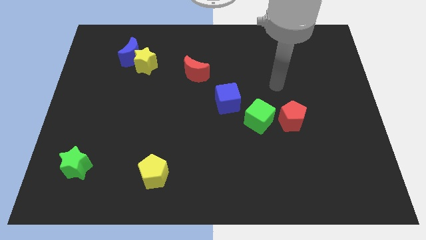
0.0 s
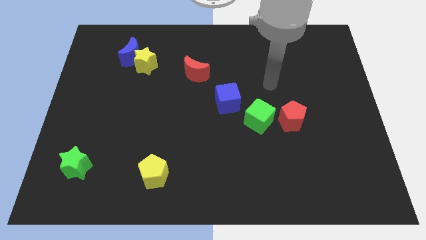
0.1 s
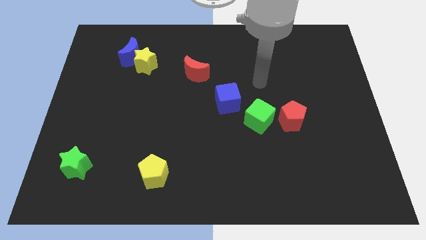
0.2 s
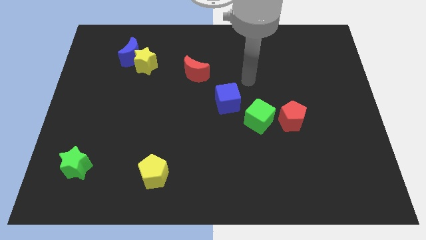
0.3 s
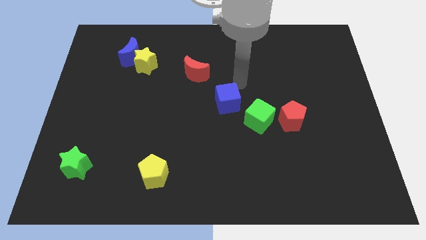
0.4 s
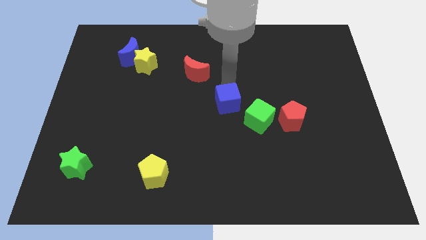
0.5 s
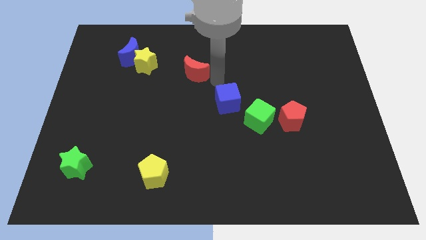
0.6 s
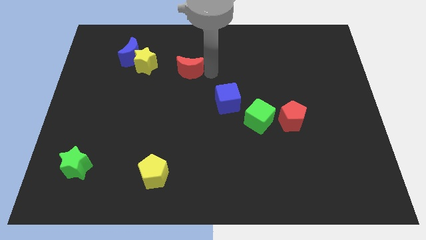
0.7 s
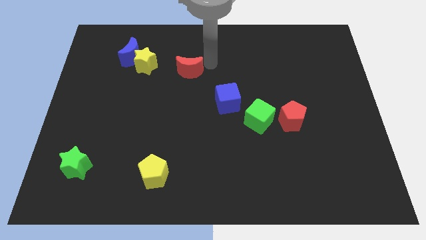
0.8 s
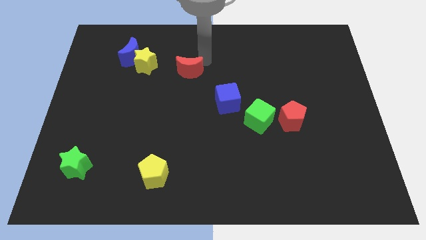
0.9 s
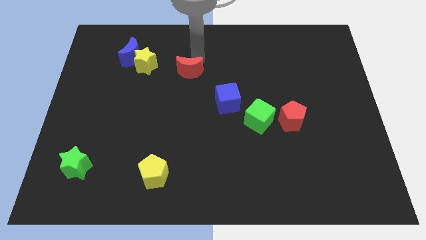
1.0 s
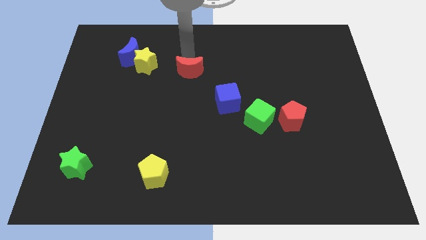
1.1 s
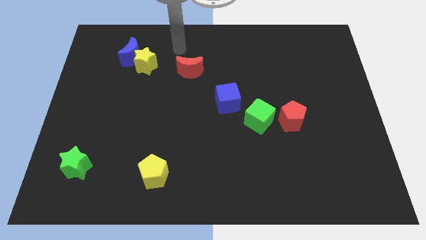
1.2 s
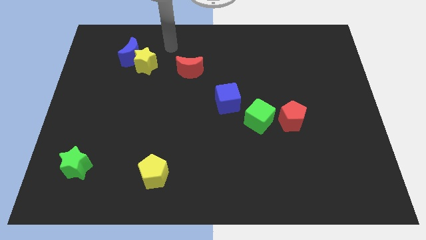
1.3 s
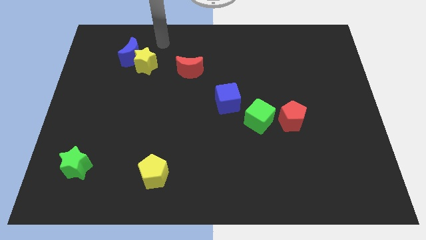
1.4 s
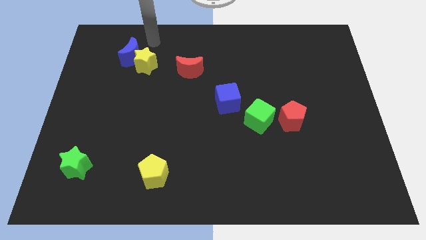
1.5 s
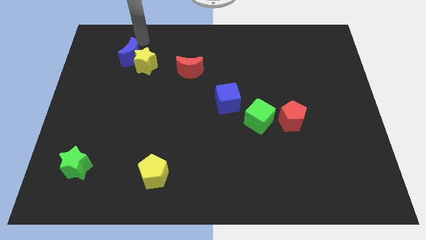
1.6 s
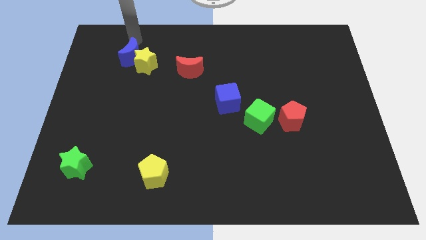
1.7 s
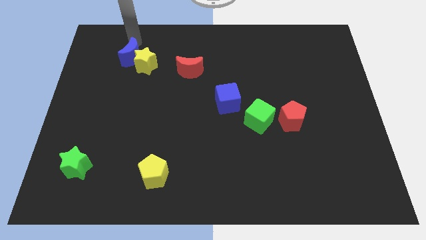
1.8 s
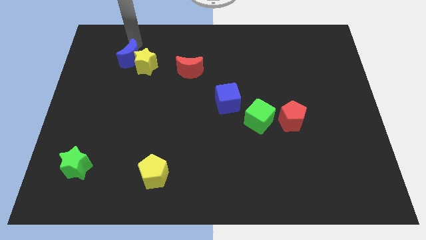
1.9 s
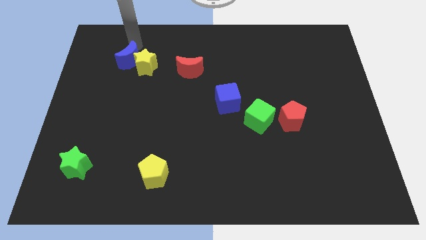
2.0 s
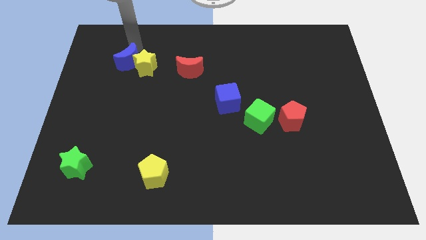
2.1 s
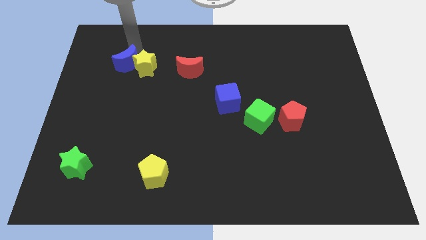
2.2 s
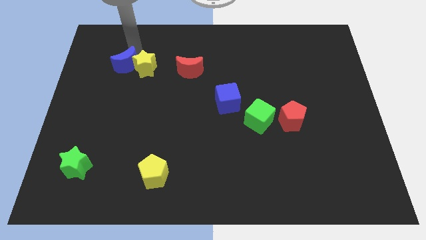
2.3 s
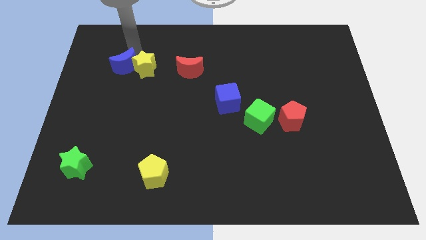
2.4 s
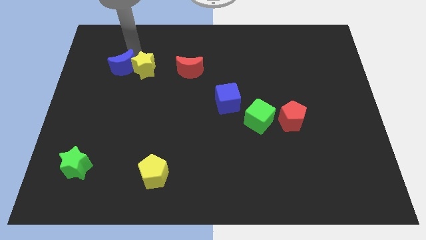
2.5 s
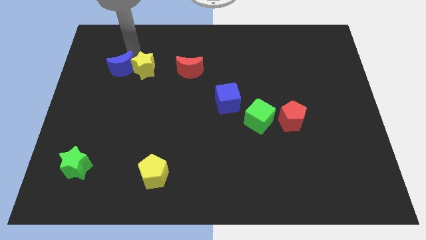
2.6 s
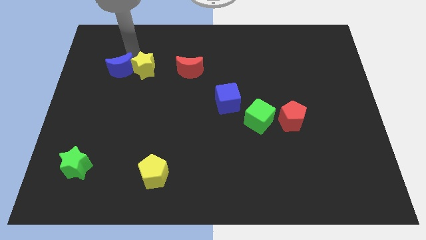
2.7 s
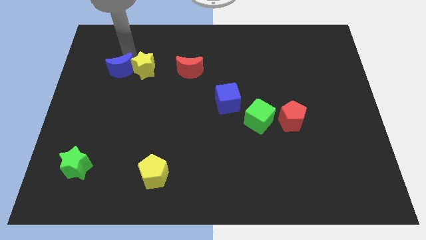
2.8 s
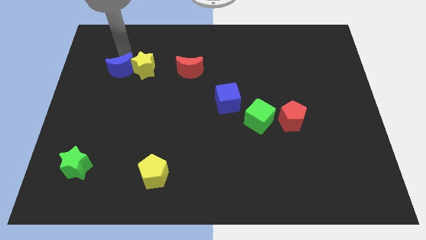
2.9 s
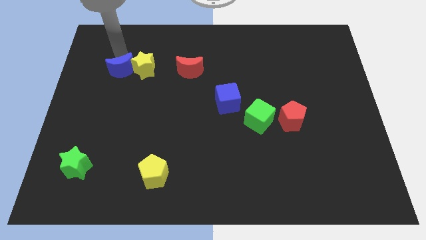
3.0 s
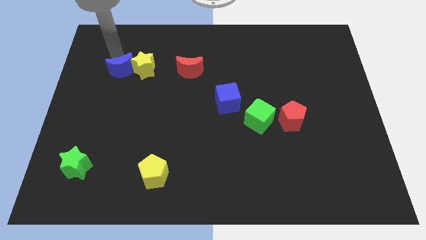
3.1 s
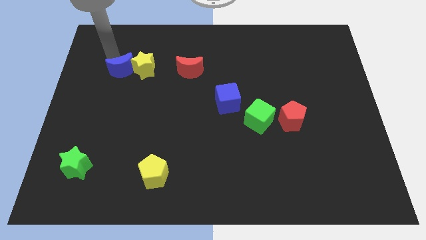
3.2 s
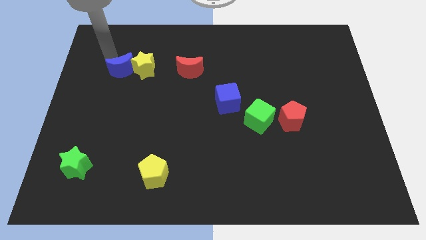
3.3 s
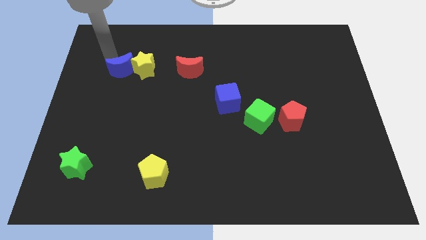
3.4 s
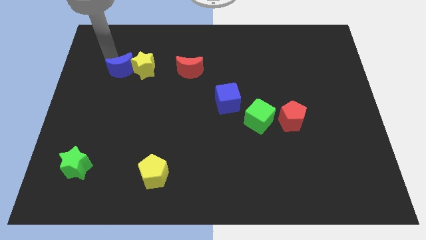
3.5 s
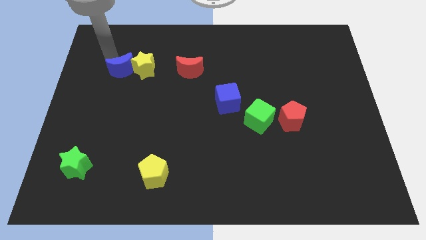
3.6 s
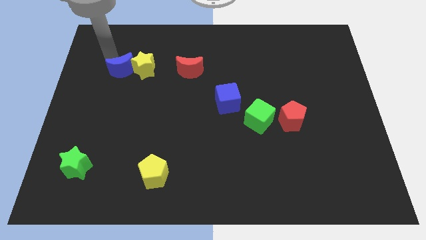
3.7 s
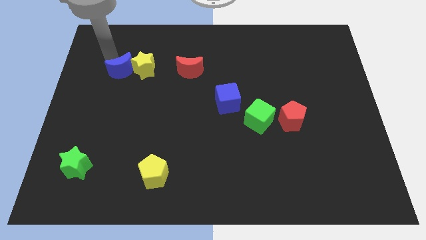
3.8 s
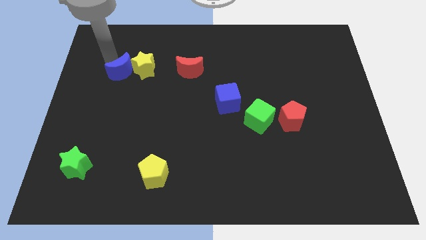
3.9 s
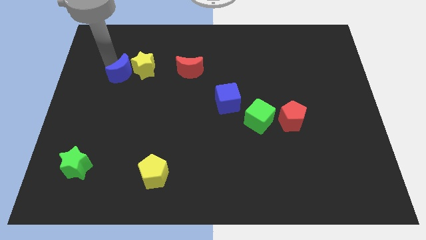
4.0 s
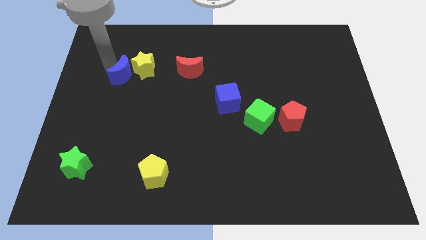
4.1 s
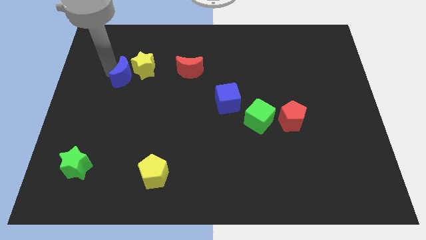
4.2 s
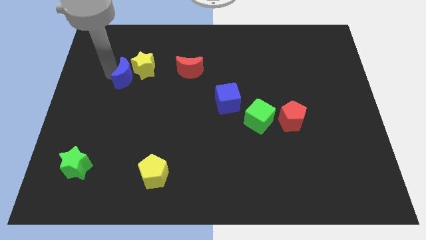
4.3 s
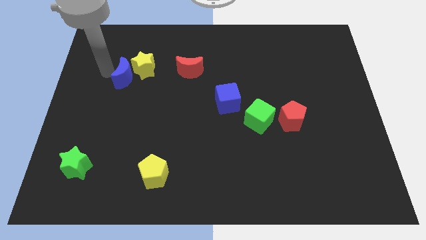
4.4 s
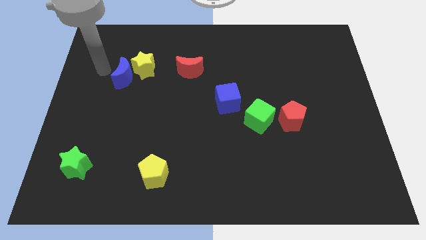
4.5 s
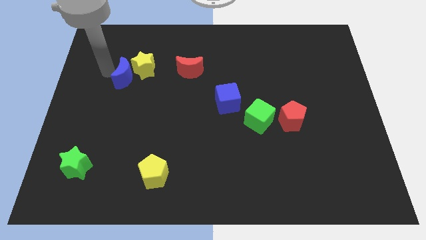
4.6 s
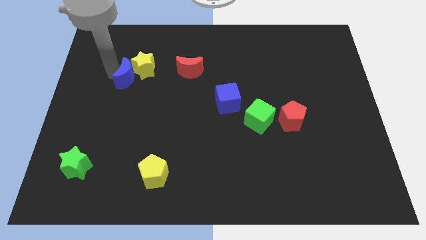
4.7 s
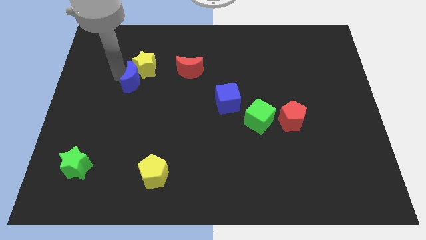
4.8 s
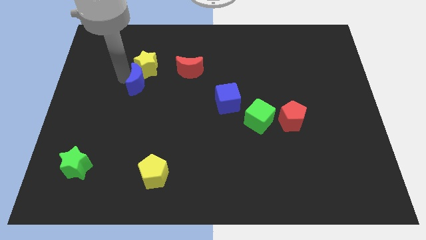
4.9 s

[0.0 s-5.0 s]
slide the blue moon downwards and then right a bit

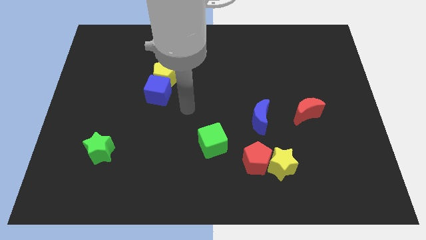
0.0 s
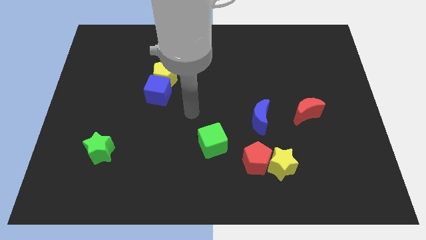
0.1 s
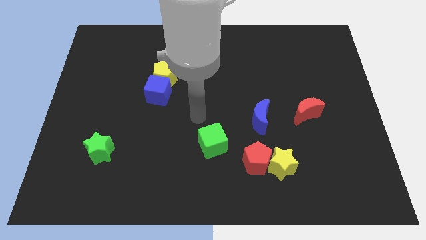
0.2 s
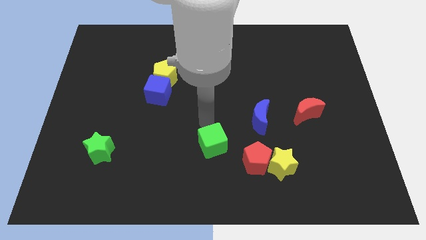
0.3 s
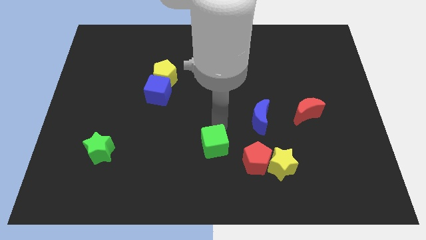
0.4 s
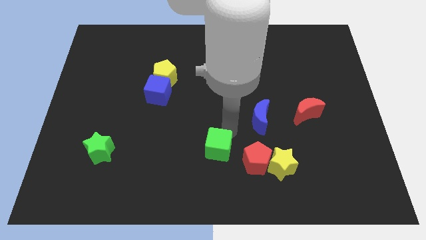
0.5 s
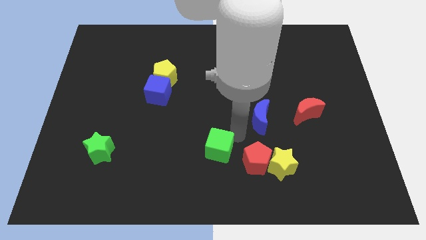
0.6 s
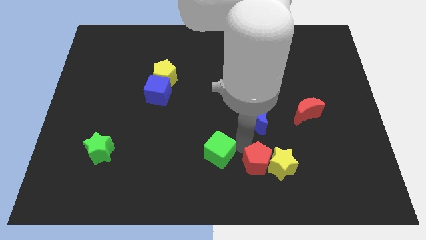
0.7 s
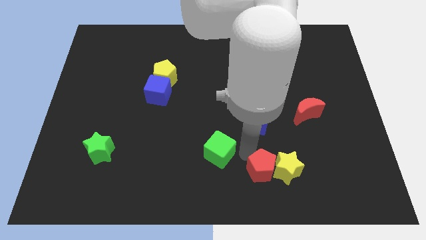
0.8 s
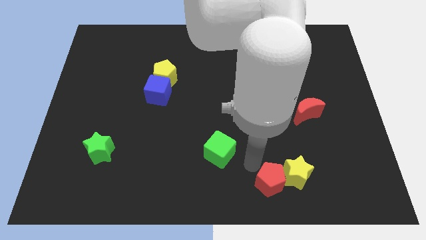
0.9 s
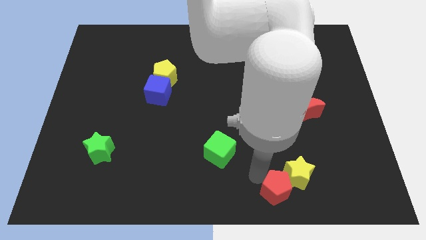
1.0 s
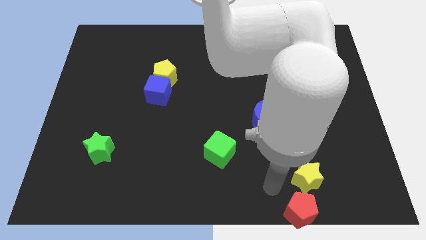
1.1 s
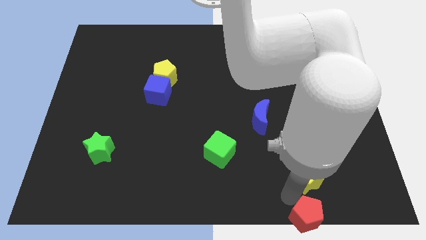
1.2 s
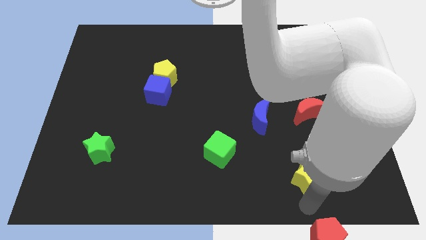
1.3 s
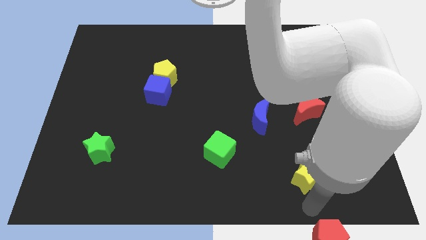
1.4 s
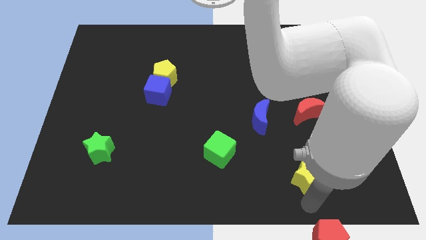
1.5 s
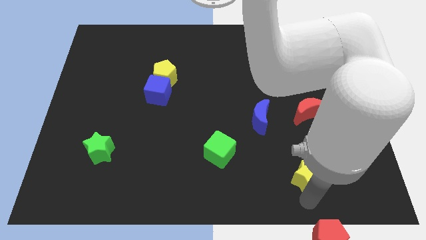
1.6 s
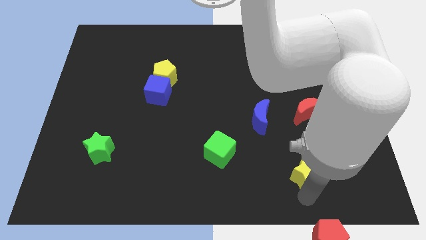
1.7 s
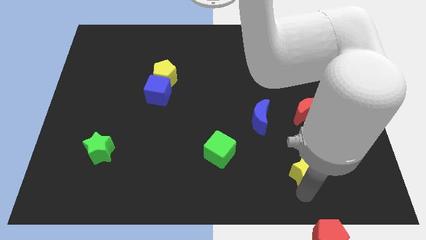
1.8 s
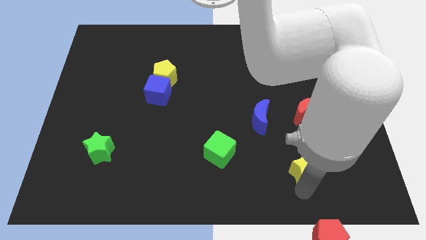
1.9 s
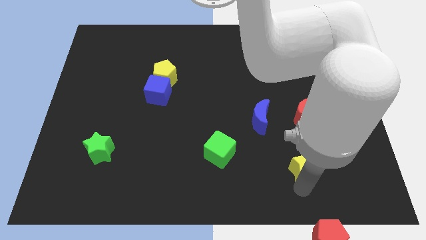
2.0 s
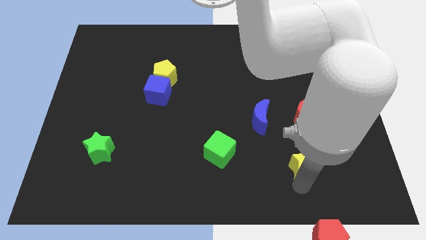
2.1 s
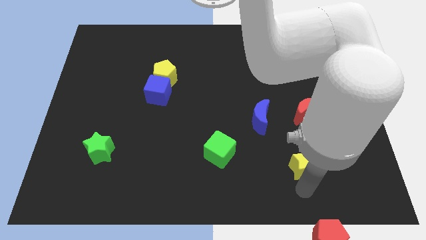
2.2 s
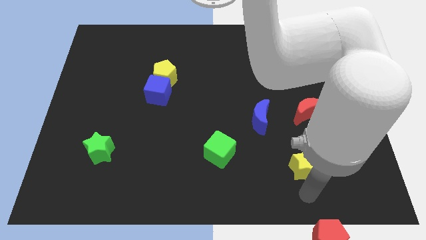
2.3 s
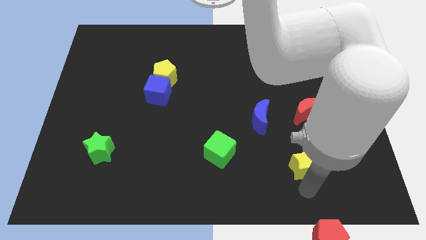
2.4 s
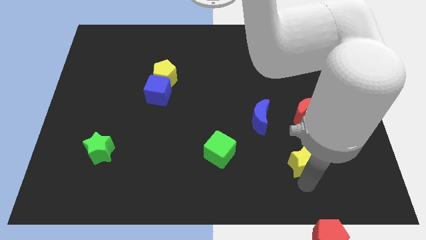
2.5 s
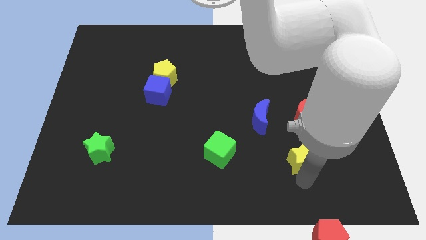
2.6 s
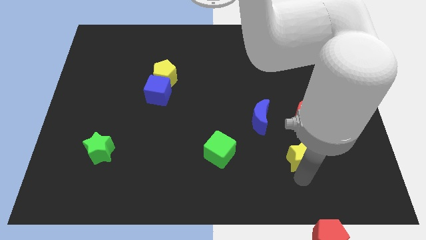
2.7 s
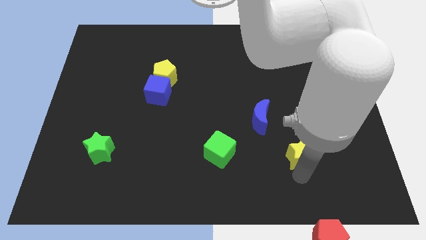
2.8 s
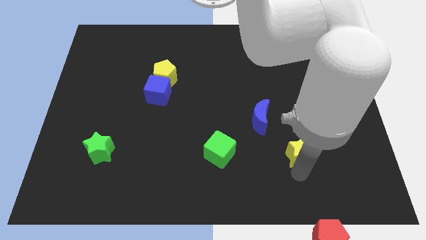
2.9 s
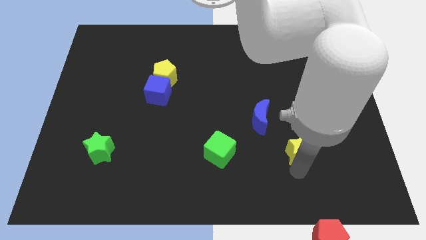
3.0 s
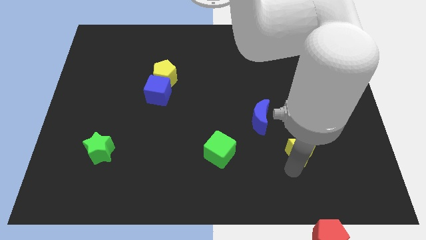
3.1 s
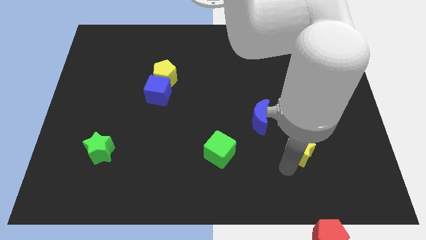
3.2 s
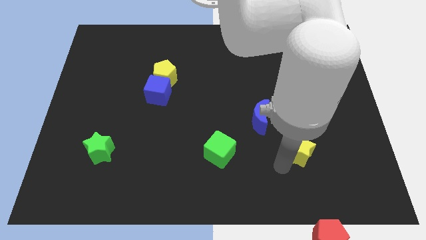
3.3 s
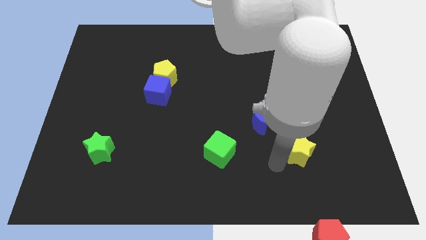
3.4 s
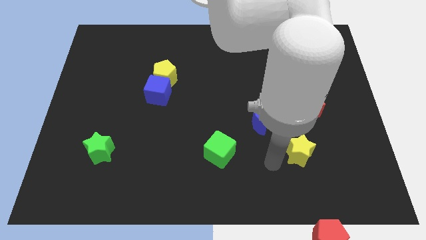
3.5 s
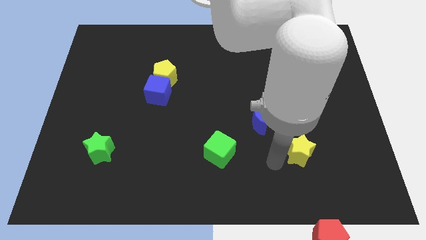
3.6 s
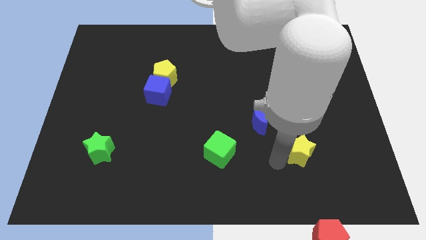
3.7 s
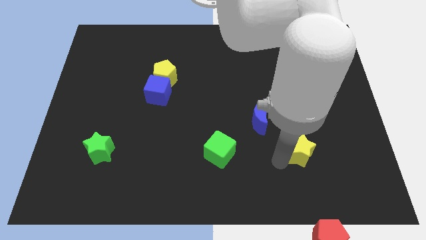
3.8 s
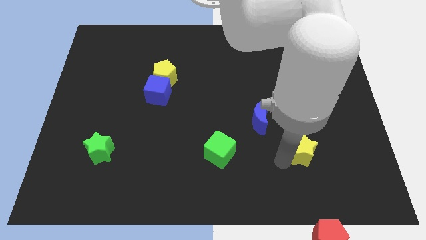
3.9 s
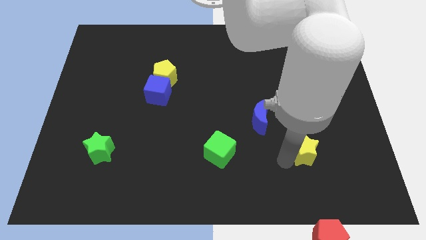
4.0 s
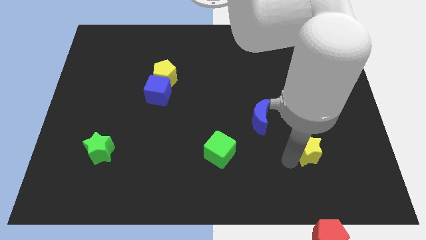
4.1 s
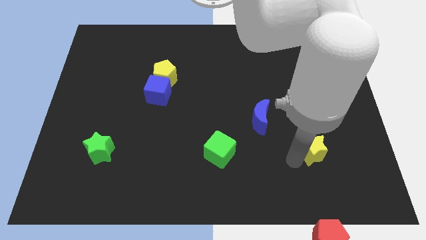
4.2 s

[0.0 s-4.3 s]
slide the yellow star diagonally upwards and right a little bit
